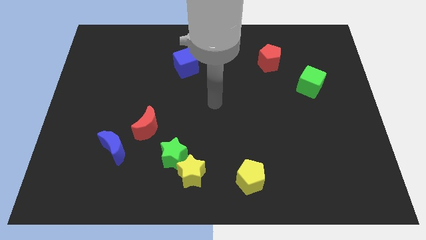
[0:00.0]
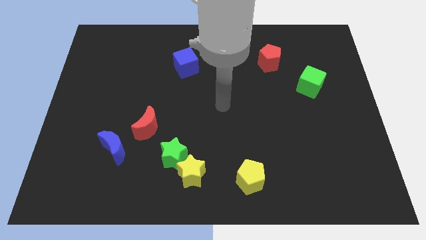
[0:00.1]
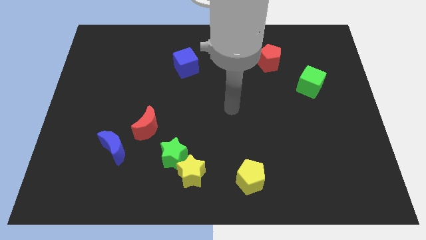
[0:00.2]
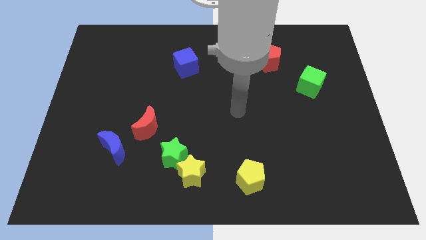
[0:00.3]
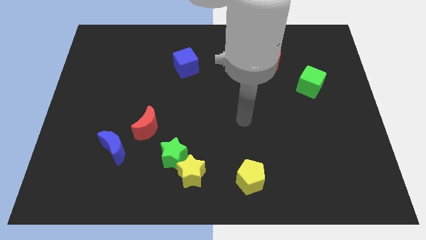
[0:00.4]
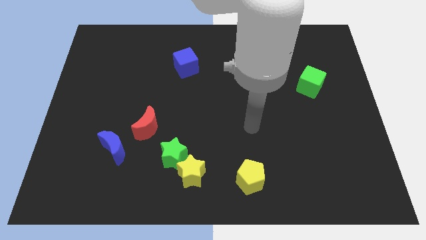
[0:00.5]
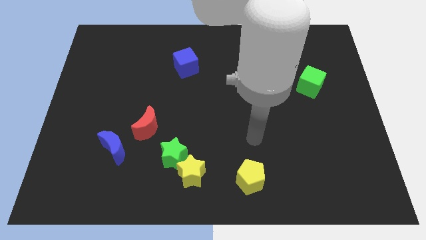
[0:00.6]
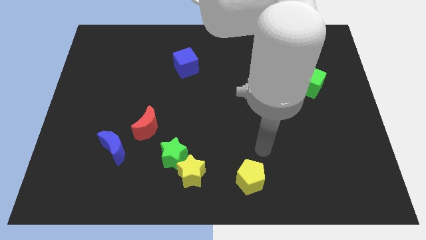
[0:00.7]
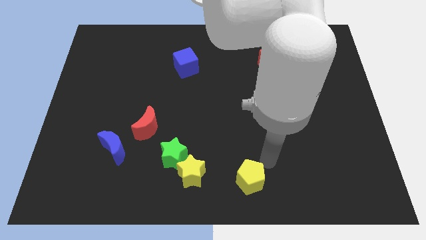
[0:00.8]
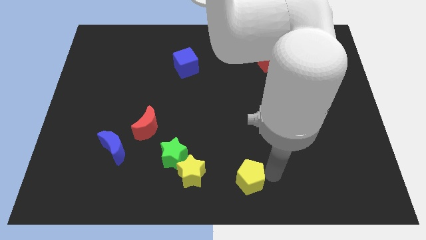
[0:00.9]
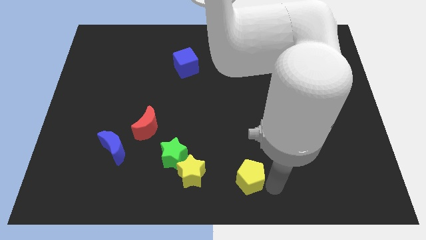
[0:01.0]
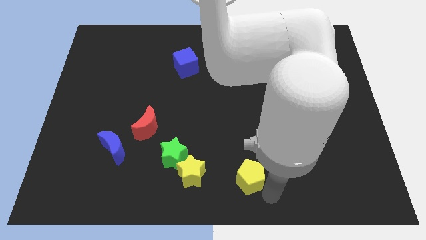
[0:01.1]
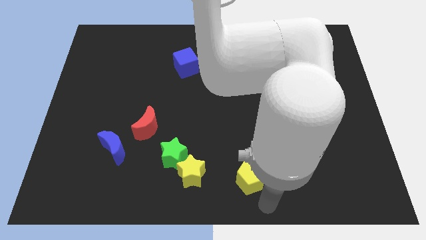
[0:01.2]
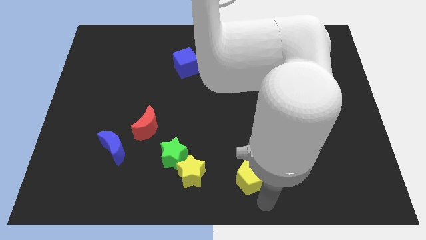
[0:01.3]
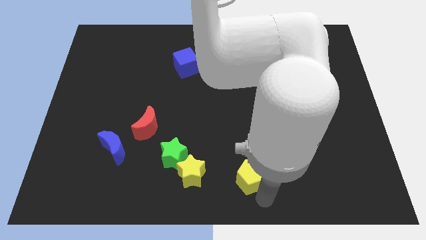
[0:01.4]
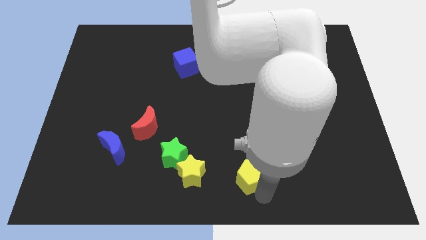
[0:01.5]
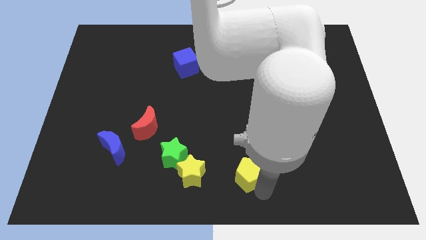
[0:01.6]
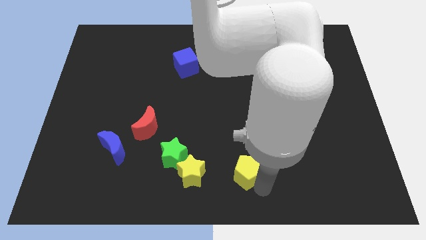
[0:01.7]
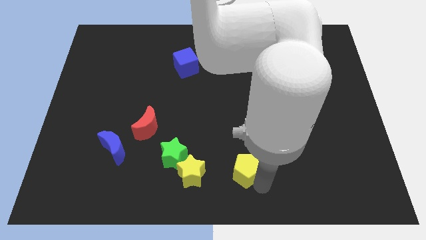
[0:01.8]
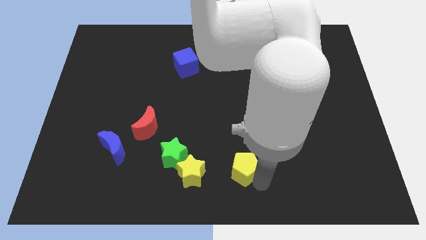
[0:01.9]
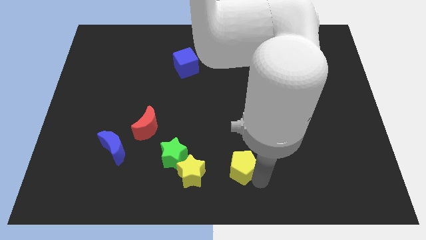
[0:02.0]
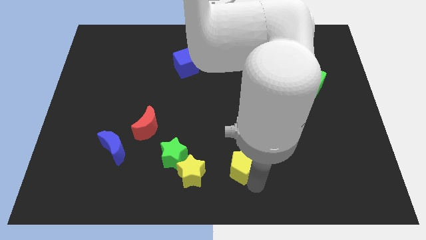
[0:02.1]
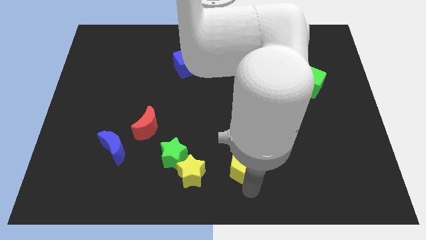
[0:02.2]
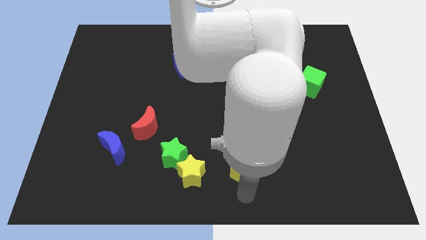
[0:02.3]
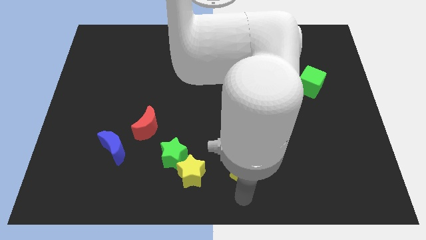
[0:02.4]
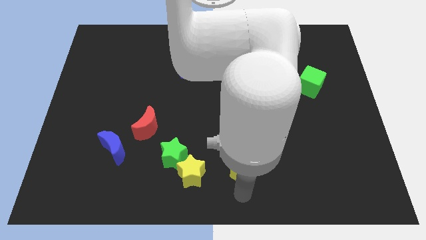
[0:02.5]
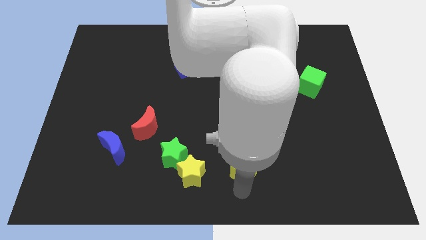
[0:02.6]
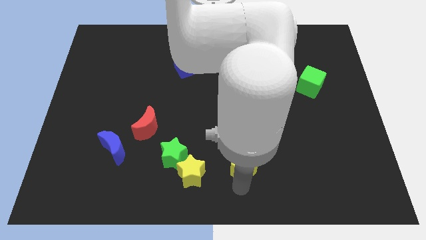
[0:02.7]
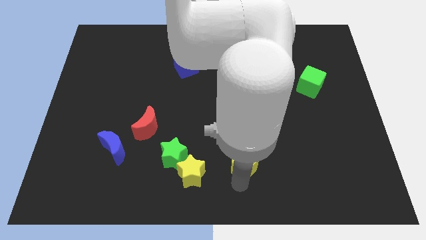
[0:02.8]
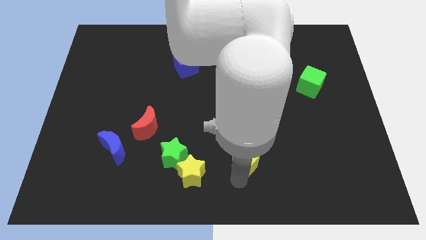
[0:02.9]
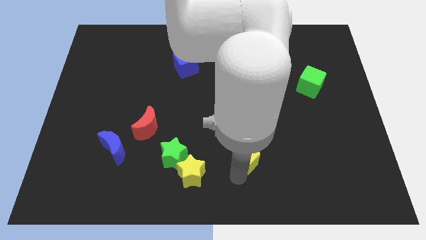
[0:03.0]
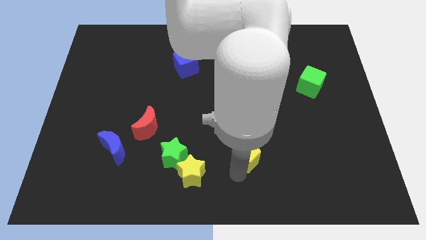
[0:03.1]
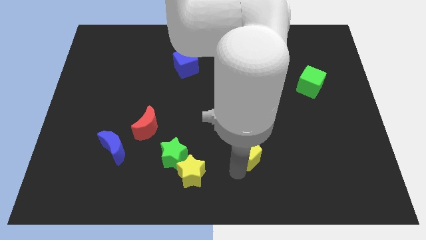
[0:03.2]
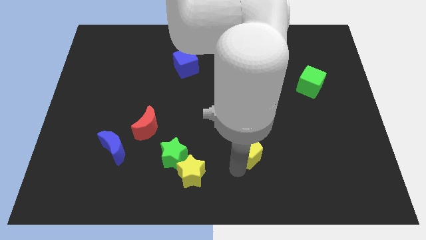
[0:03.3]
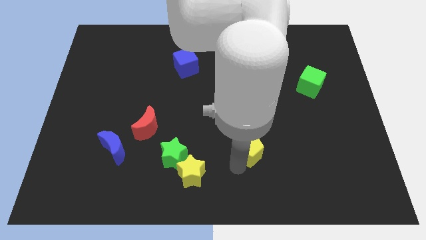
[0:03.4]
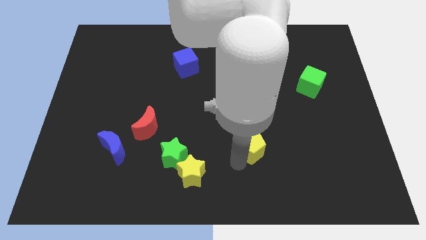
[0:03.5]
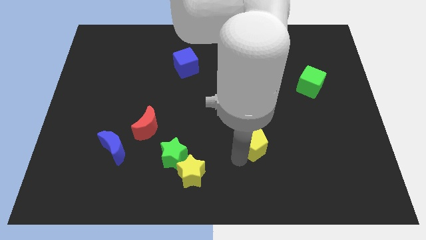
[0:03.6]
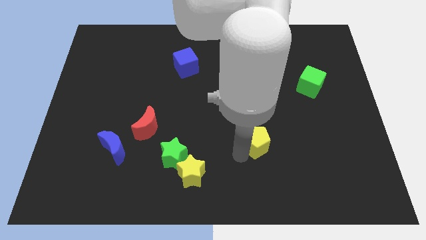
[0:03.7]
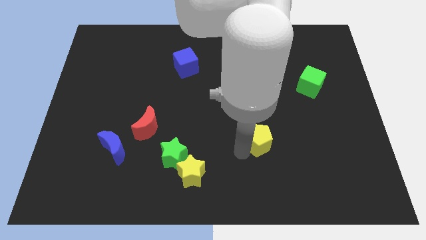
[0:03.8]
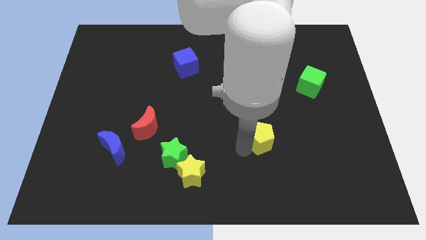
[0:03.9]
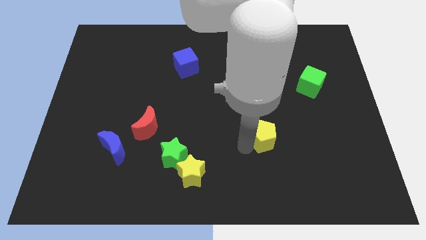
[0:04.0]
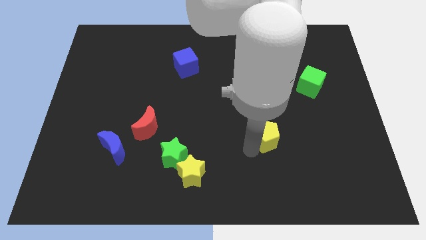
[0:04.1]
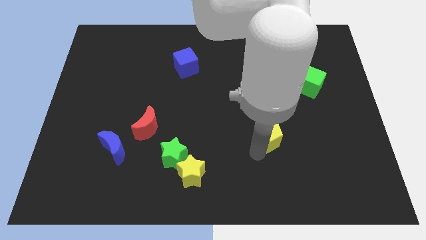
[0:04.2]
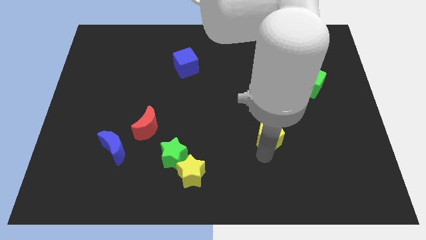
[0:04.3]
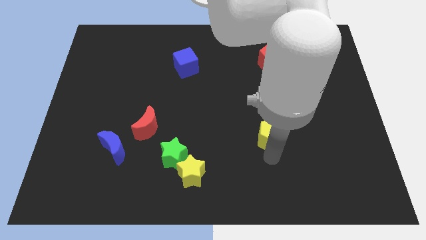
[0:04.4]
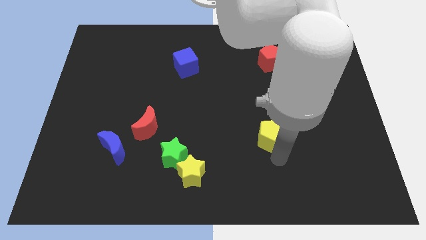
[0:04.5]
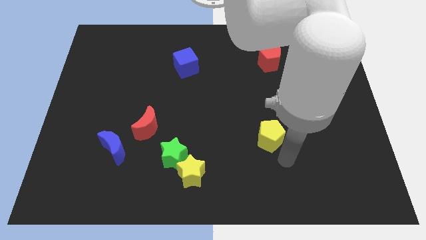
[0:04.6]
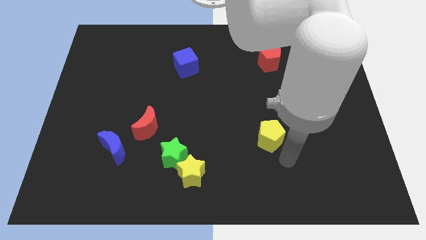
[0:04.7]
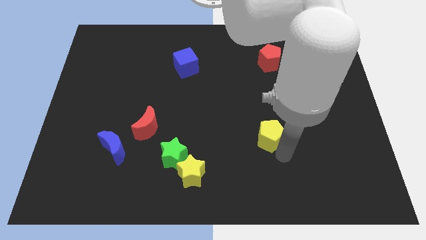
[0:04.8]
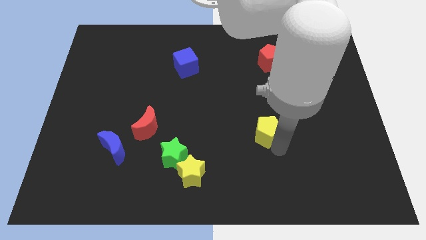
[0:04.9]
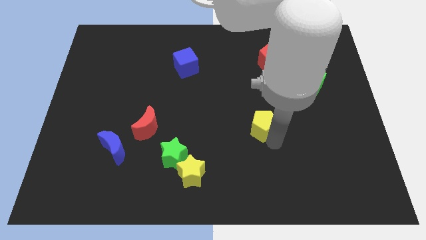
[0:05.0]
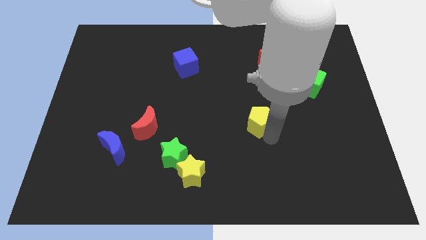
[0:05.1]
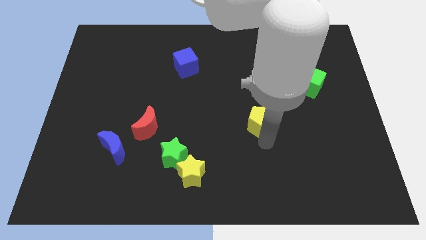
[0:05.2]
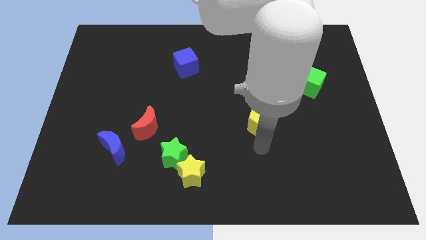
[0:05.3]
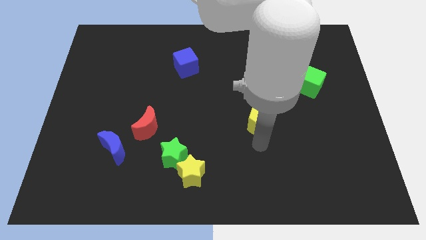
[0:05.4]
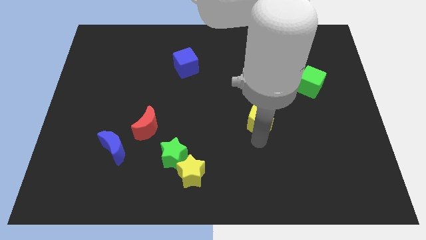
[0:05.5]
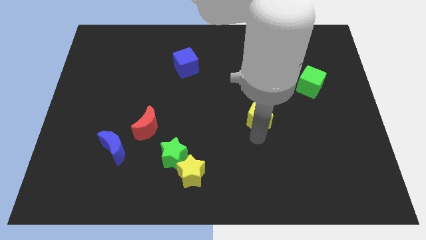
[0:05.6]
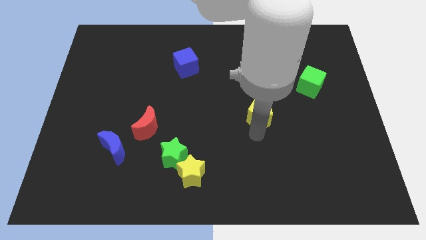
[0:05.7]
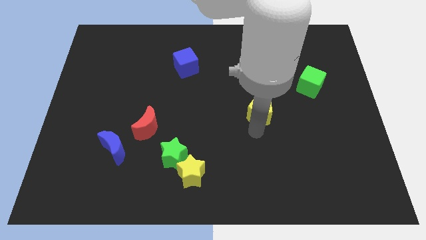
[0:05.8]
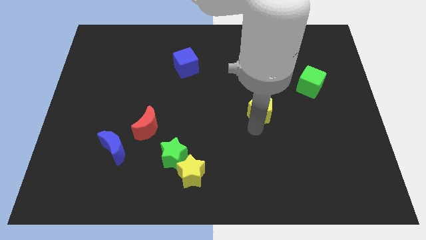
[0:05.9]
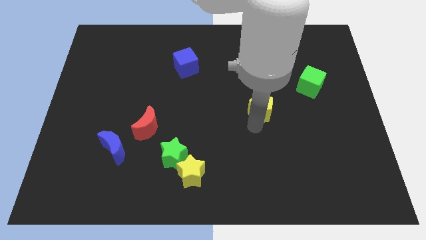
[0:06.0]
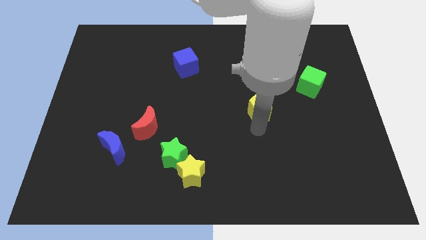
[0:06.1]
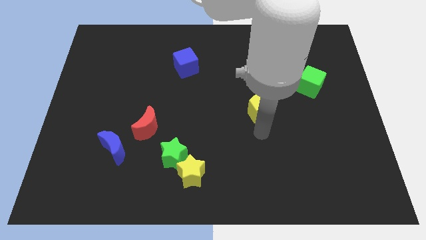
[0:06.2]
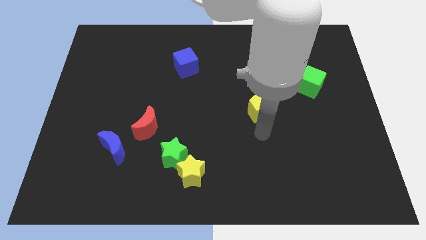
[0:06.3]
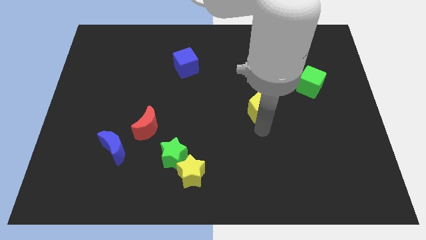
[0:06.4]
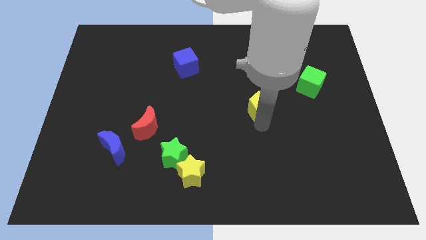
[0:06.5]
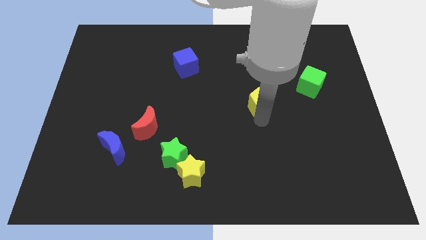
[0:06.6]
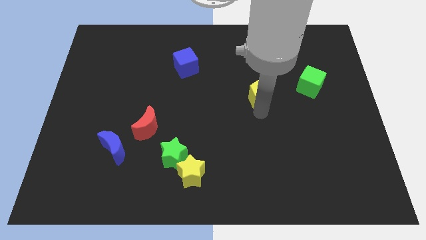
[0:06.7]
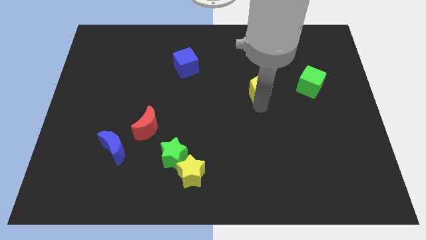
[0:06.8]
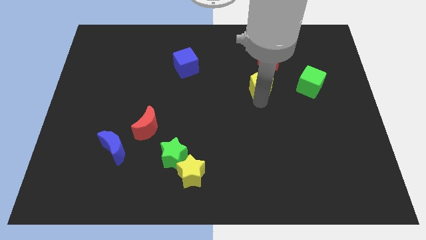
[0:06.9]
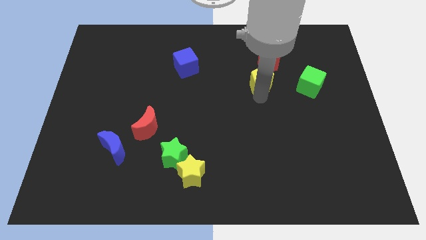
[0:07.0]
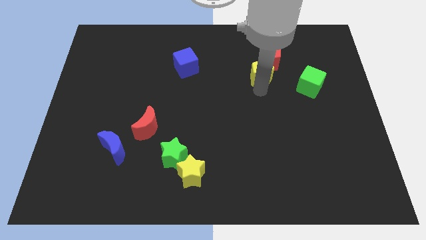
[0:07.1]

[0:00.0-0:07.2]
slide the yellow pentagon to the red pentagon

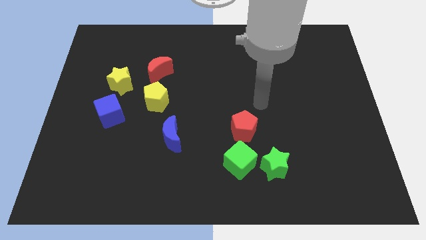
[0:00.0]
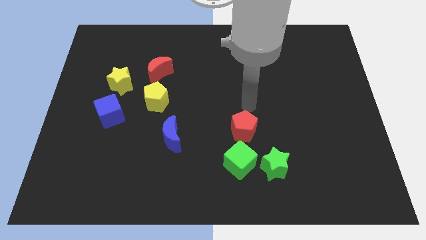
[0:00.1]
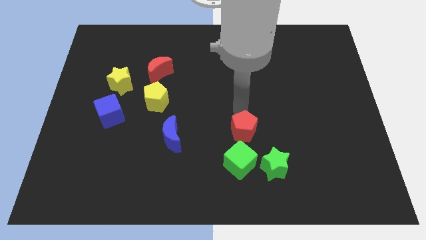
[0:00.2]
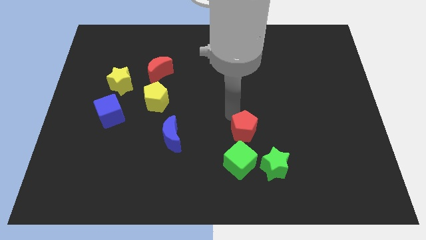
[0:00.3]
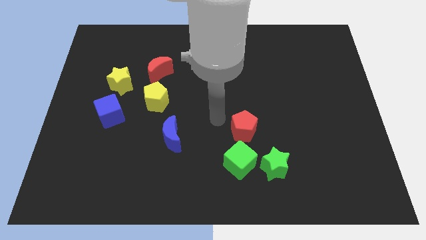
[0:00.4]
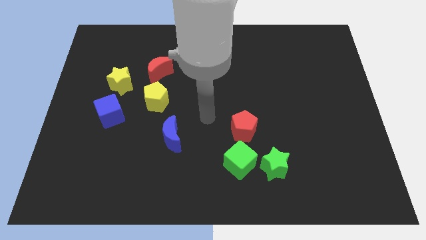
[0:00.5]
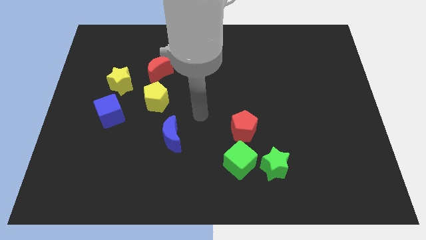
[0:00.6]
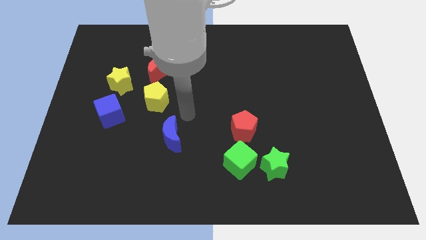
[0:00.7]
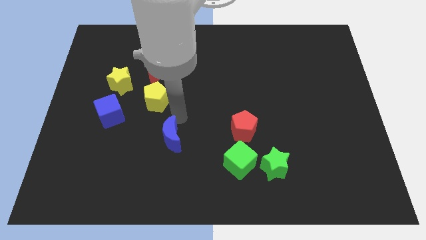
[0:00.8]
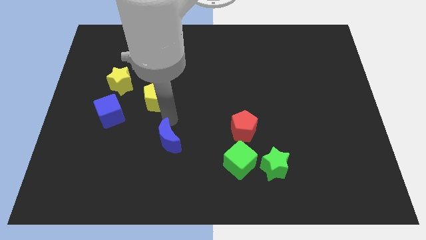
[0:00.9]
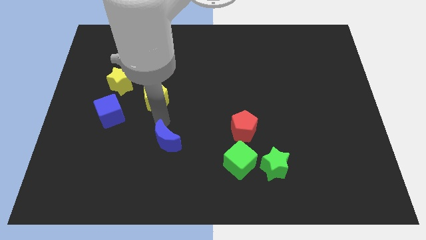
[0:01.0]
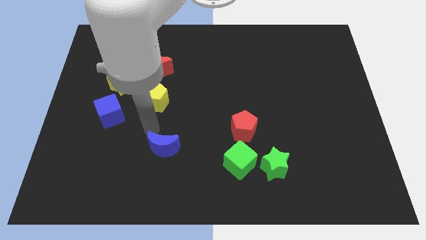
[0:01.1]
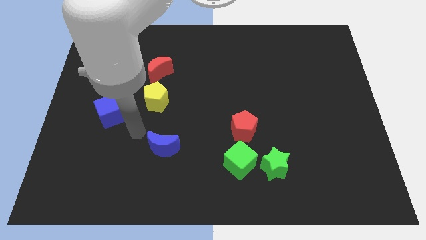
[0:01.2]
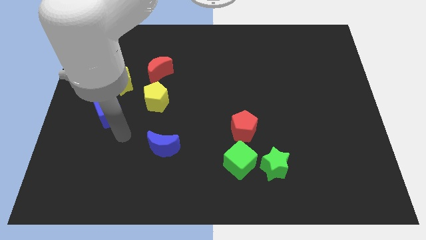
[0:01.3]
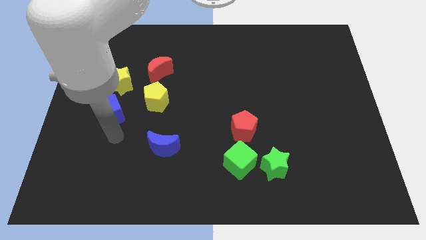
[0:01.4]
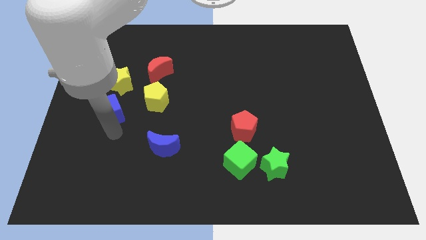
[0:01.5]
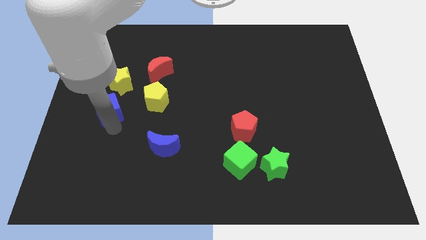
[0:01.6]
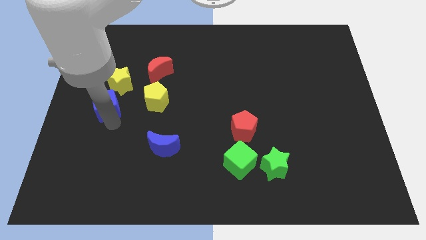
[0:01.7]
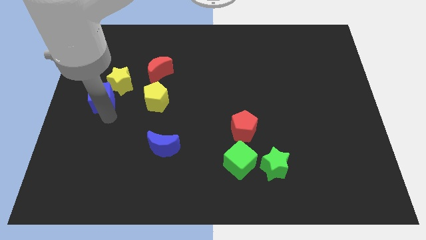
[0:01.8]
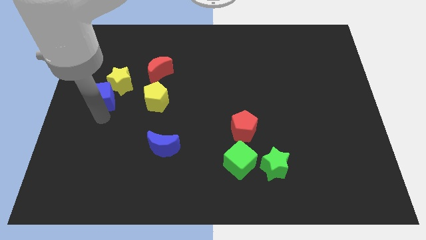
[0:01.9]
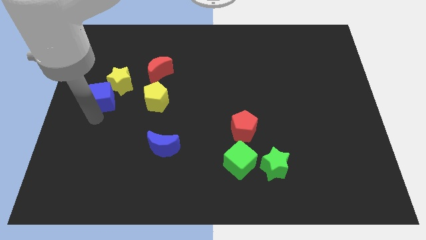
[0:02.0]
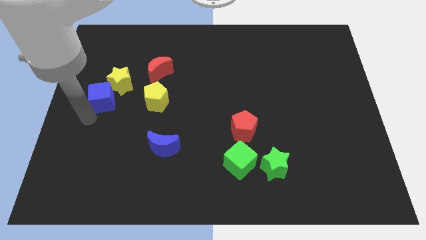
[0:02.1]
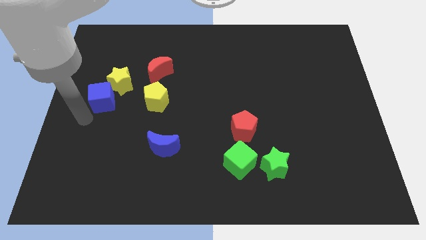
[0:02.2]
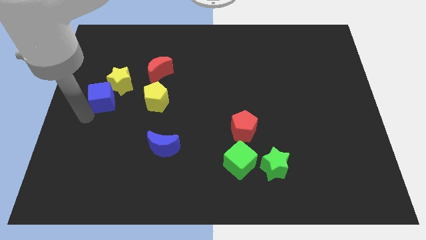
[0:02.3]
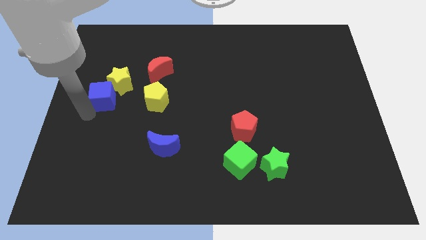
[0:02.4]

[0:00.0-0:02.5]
move the blue cube towards the yellow star
